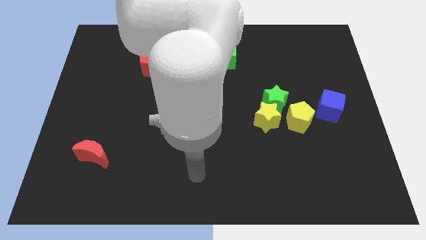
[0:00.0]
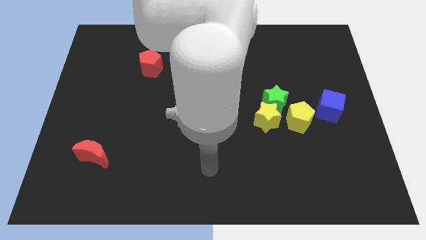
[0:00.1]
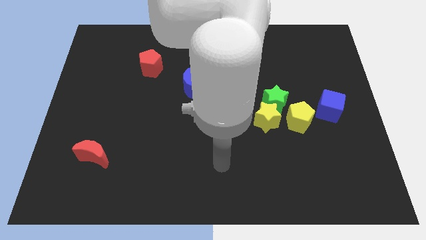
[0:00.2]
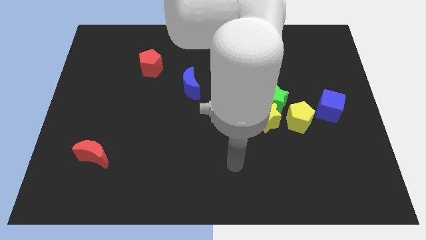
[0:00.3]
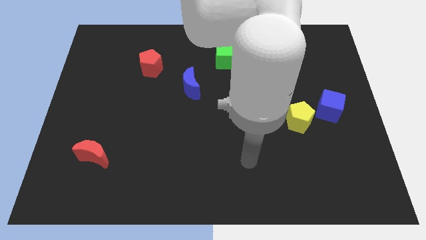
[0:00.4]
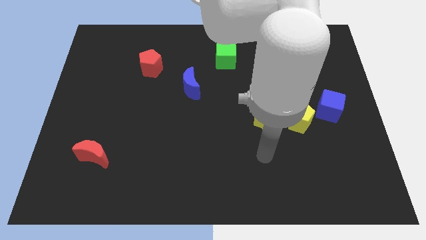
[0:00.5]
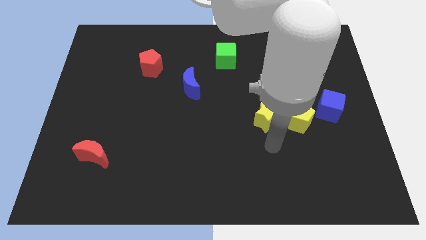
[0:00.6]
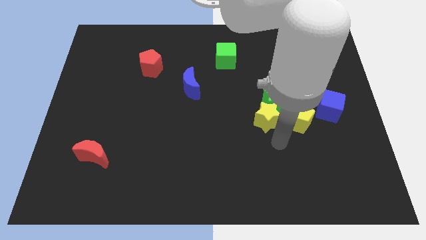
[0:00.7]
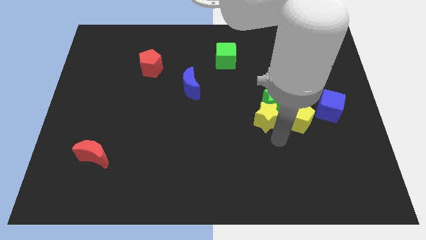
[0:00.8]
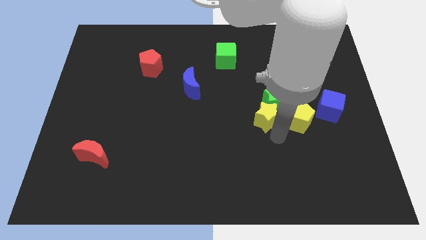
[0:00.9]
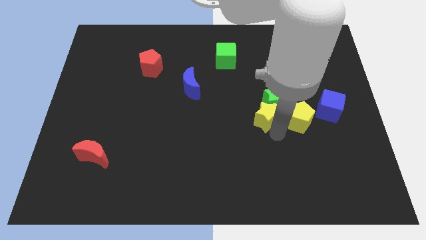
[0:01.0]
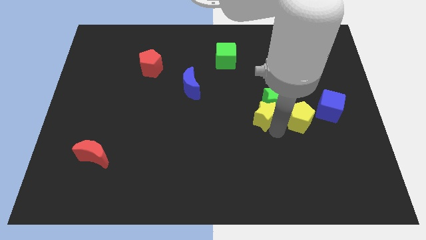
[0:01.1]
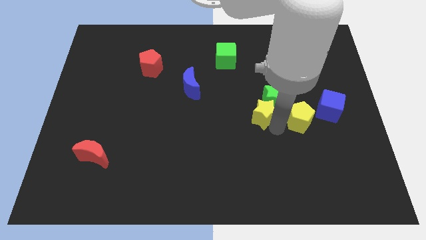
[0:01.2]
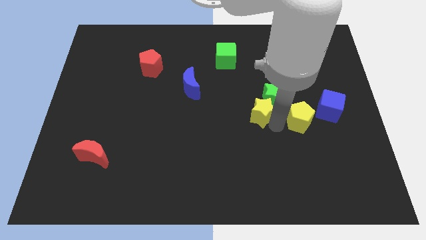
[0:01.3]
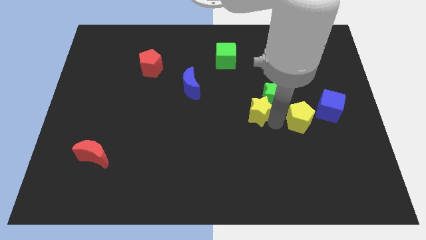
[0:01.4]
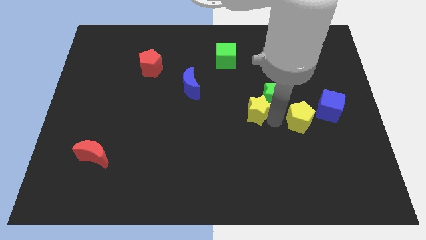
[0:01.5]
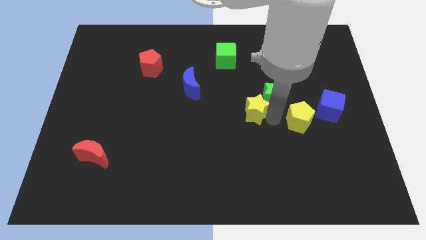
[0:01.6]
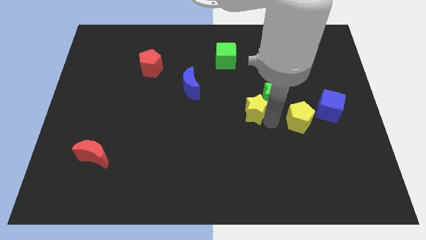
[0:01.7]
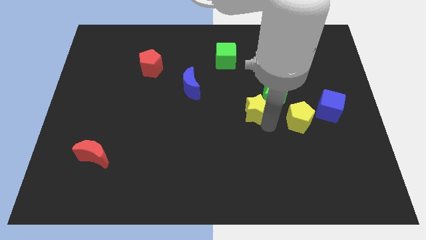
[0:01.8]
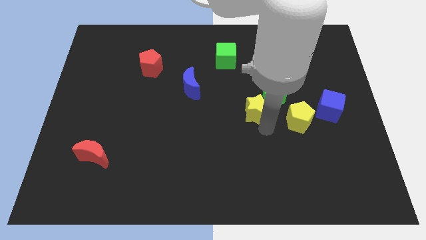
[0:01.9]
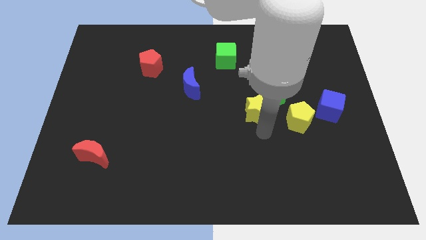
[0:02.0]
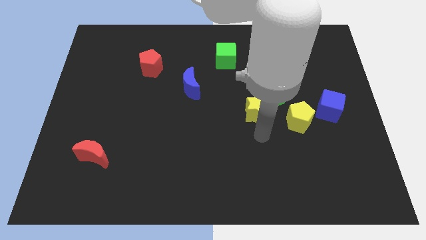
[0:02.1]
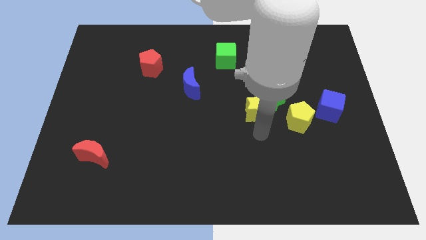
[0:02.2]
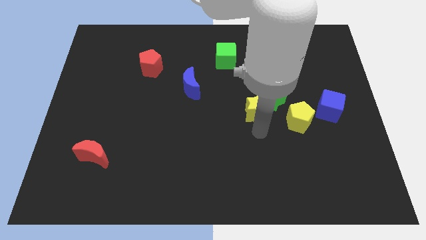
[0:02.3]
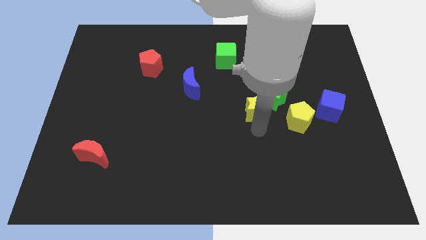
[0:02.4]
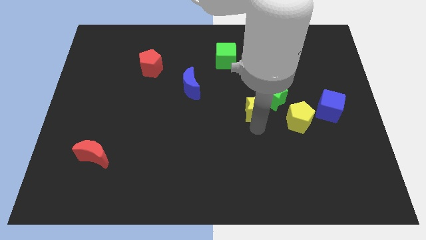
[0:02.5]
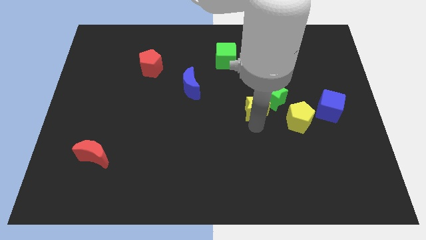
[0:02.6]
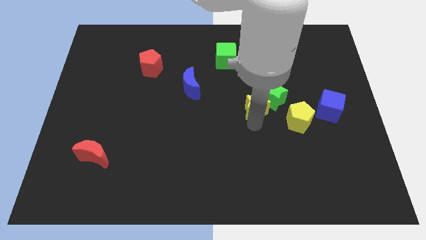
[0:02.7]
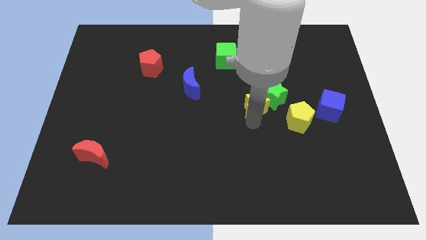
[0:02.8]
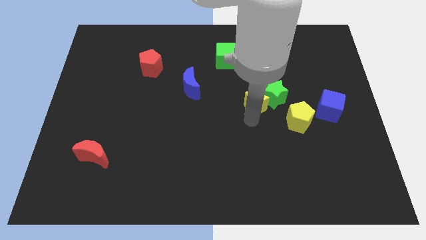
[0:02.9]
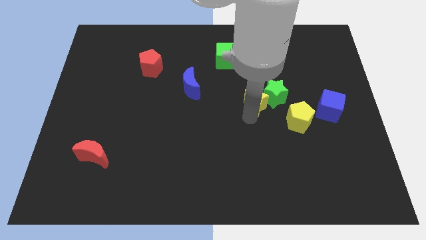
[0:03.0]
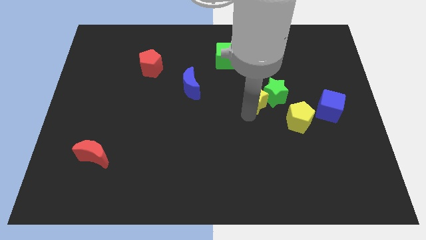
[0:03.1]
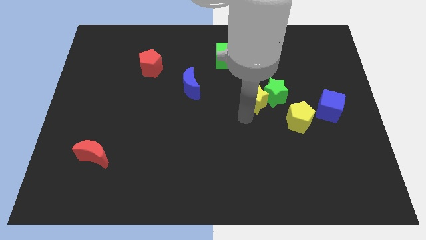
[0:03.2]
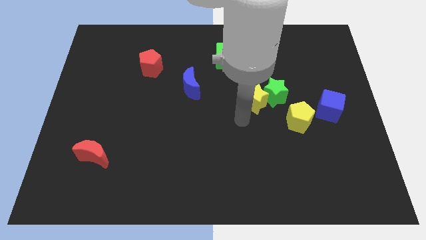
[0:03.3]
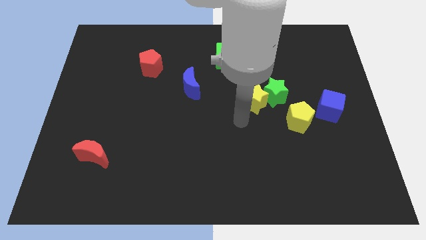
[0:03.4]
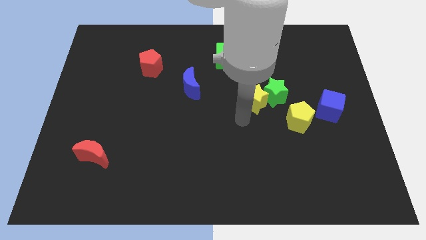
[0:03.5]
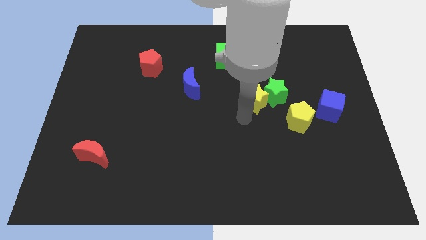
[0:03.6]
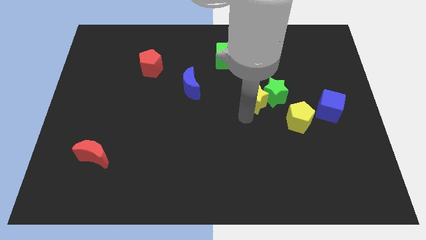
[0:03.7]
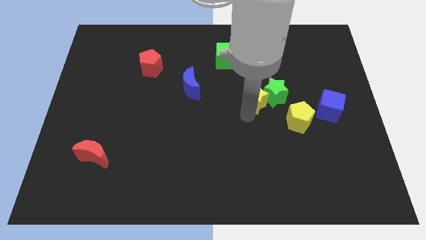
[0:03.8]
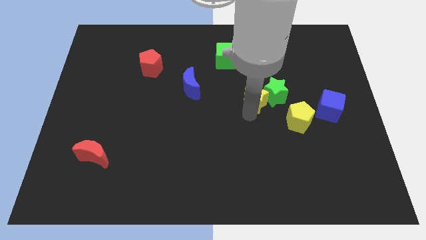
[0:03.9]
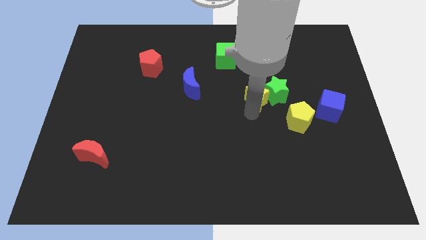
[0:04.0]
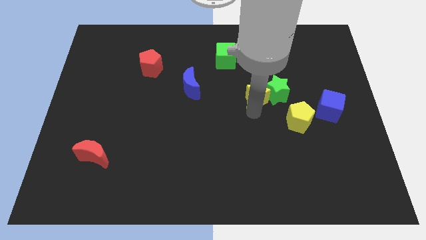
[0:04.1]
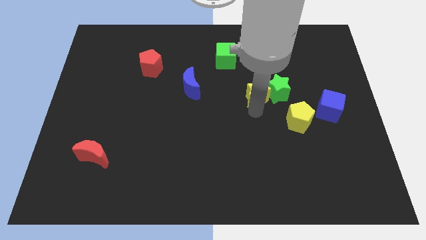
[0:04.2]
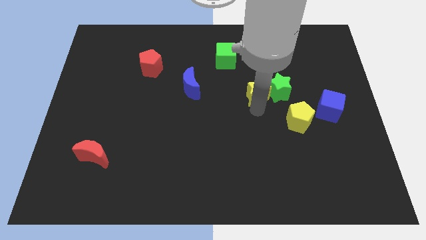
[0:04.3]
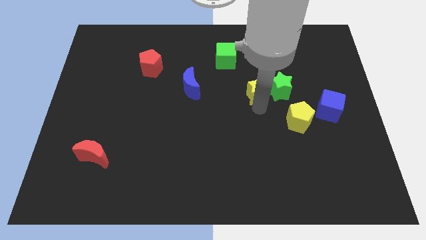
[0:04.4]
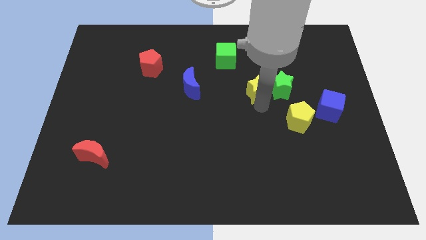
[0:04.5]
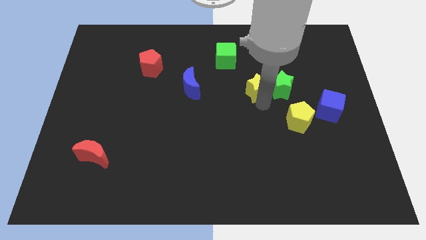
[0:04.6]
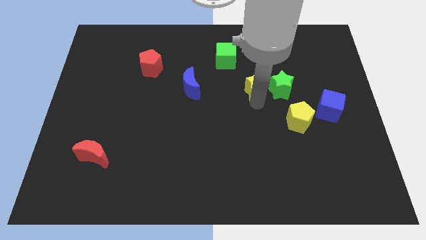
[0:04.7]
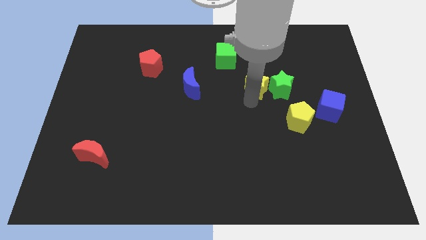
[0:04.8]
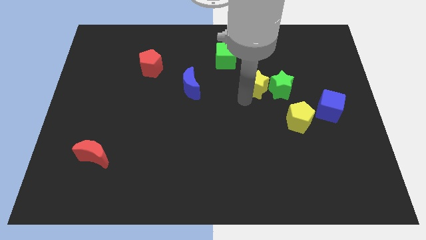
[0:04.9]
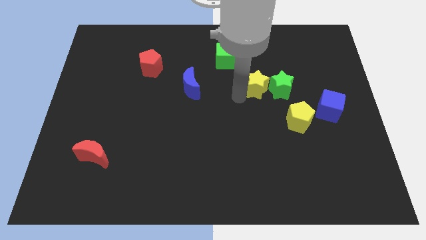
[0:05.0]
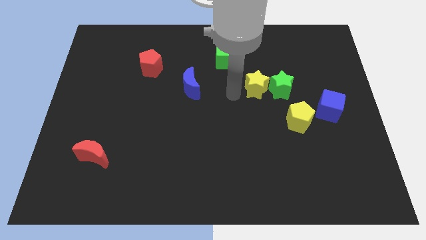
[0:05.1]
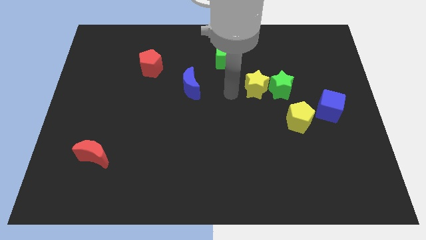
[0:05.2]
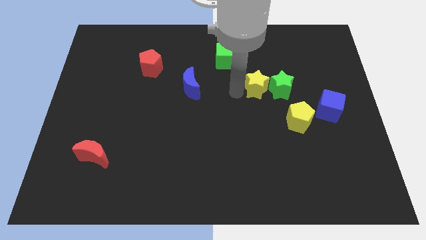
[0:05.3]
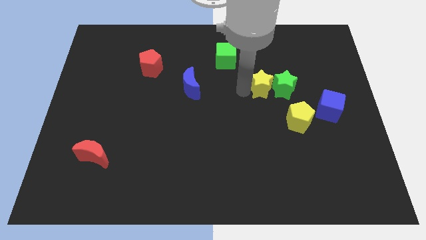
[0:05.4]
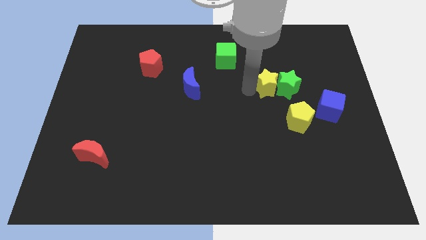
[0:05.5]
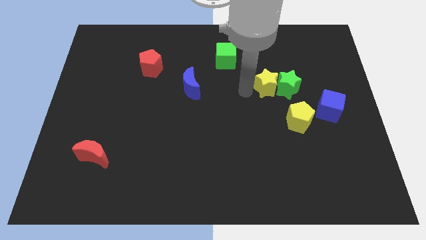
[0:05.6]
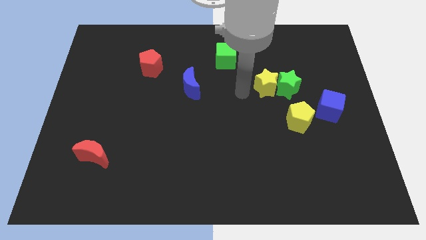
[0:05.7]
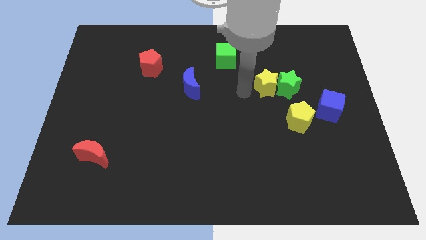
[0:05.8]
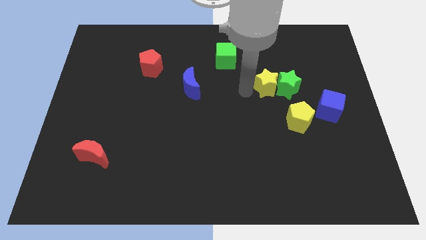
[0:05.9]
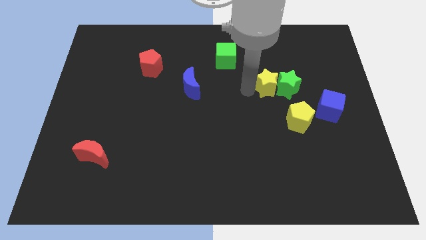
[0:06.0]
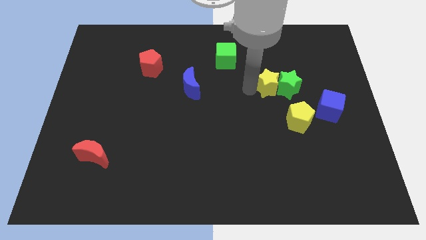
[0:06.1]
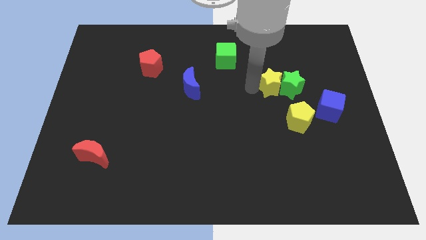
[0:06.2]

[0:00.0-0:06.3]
move the yellow star somewhat diagonally up and to the right

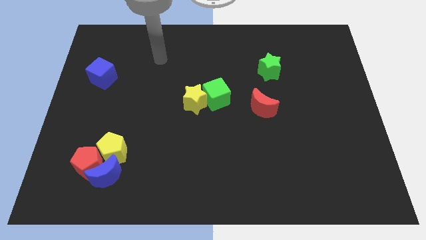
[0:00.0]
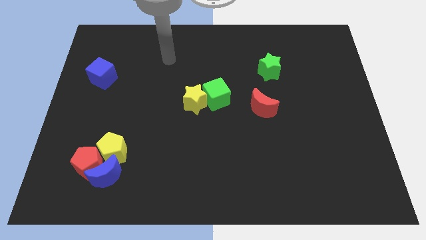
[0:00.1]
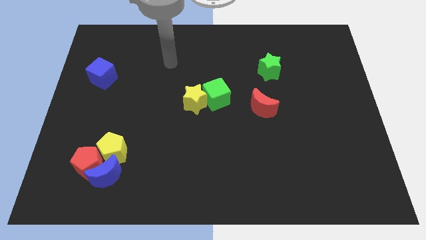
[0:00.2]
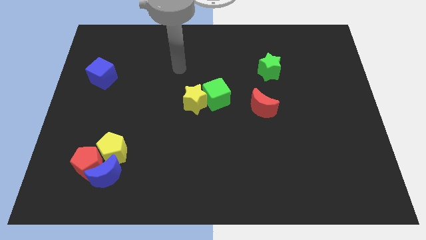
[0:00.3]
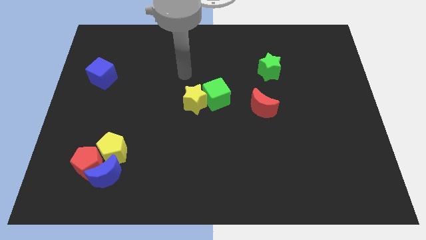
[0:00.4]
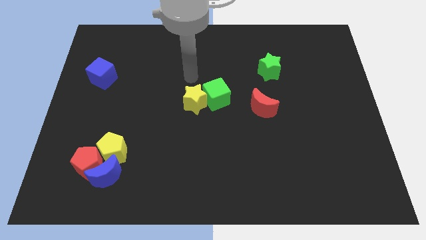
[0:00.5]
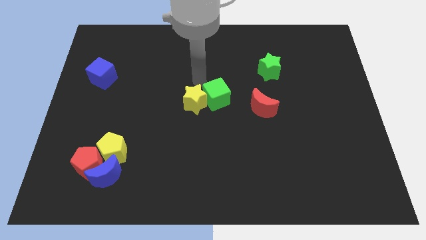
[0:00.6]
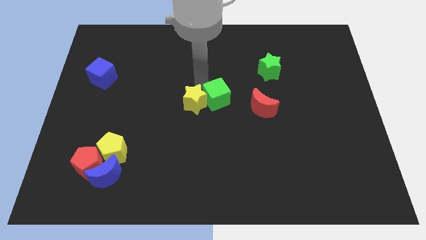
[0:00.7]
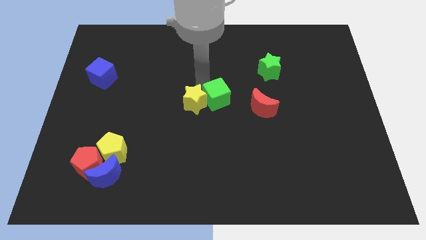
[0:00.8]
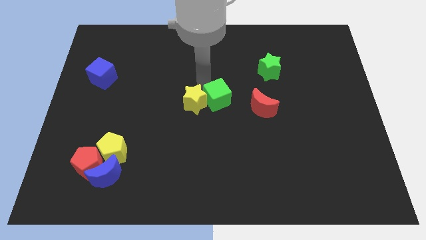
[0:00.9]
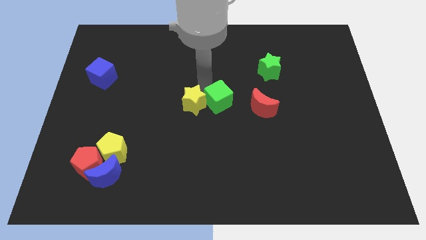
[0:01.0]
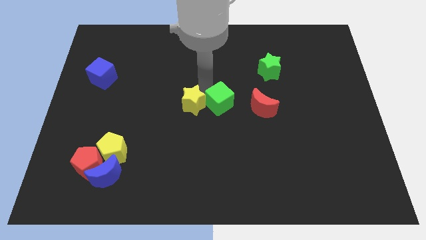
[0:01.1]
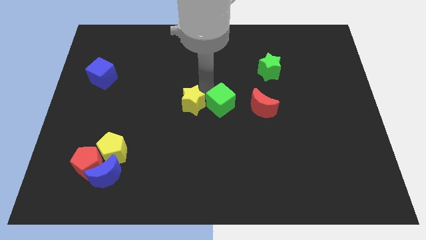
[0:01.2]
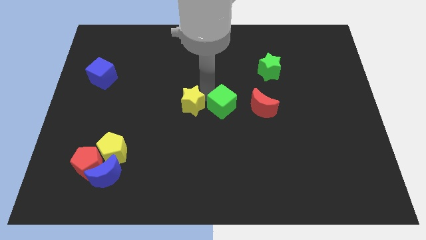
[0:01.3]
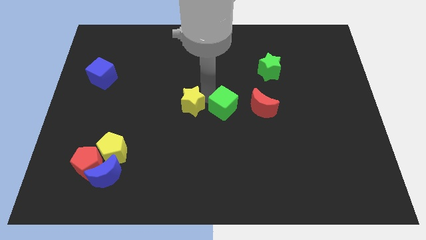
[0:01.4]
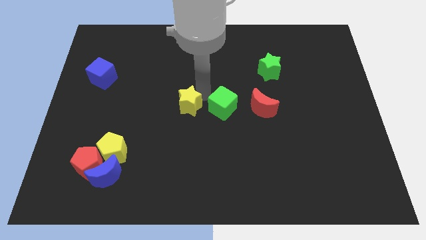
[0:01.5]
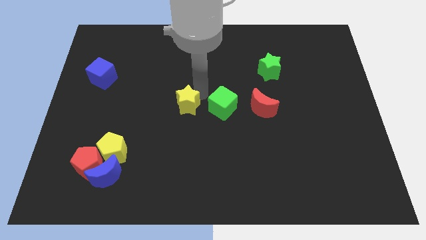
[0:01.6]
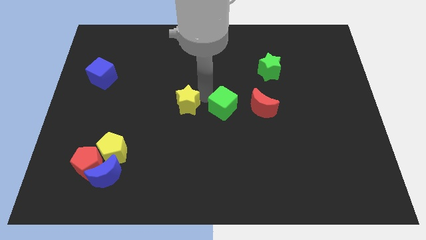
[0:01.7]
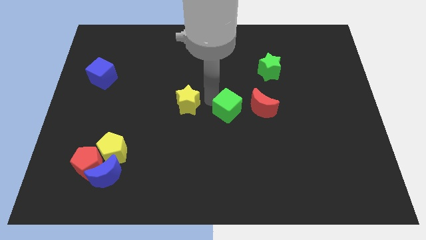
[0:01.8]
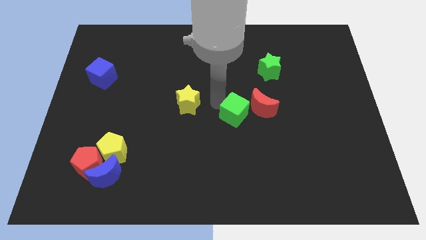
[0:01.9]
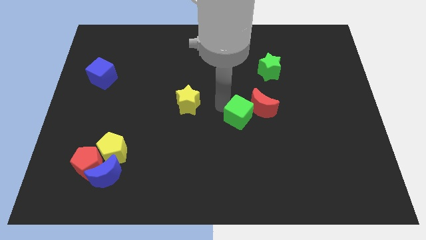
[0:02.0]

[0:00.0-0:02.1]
slide the green cube a bit down and to the right diagonally
